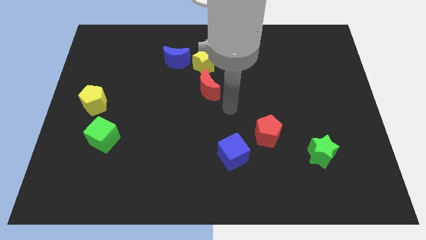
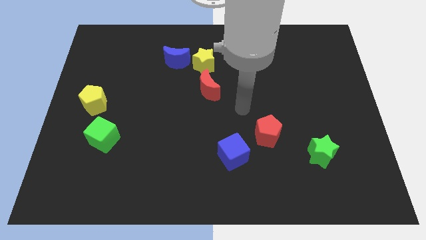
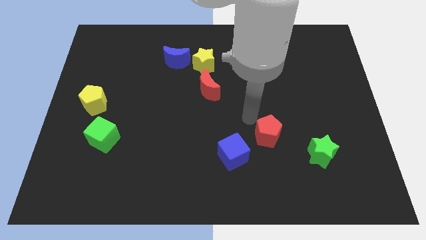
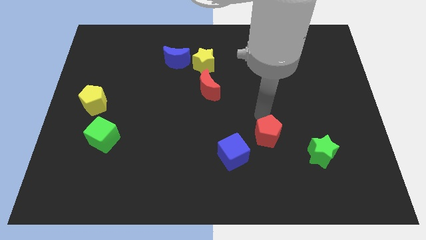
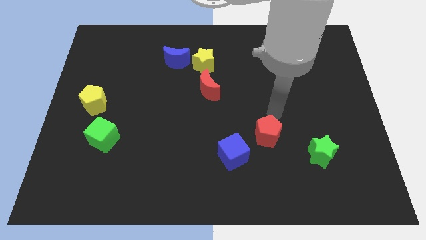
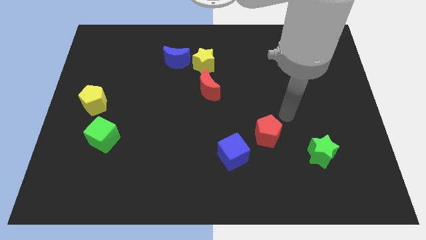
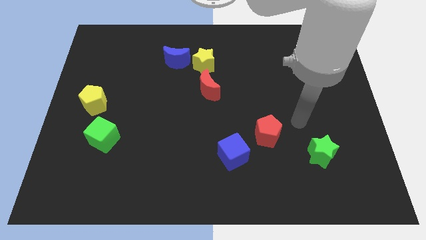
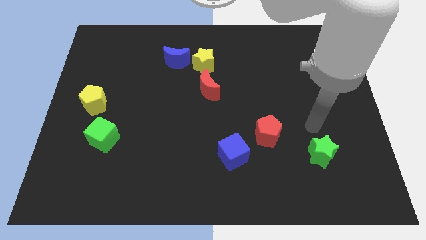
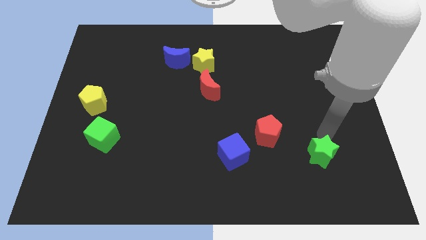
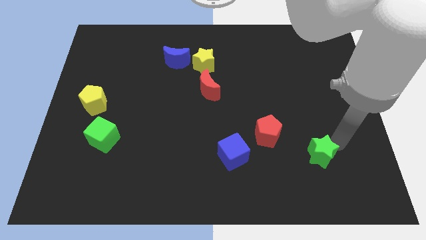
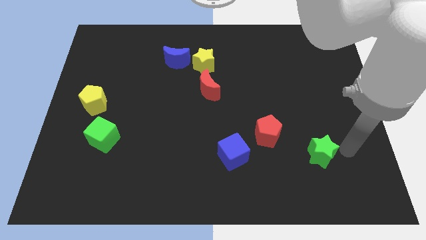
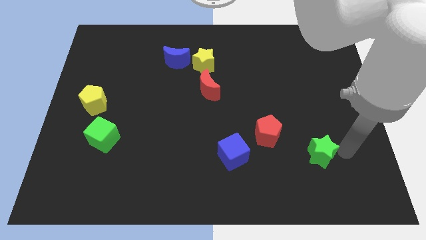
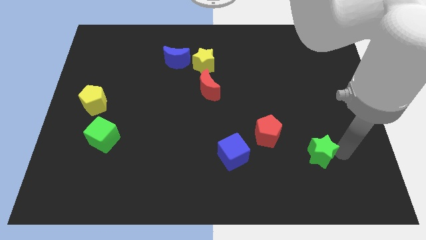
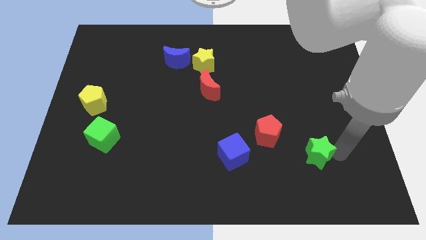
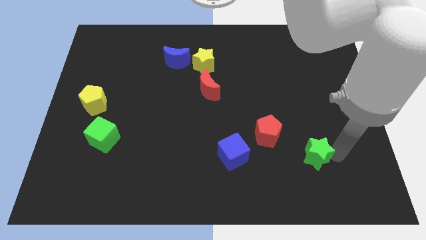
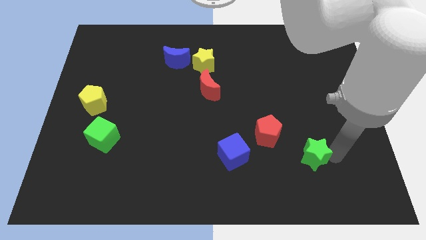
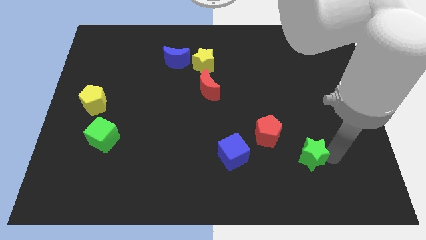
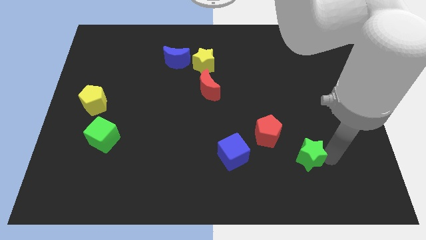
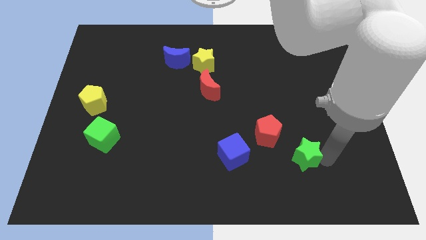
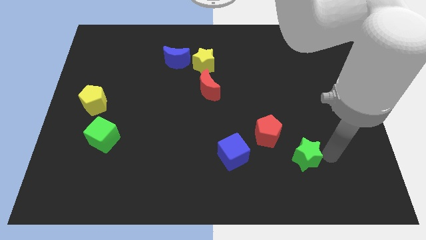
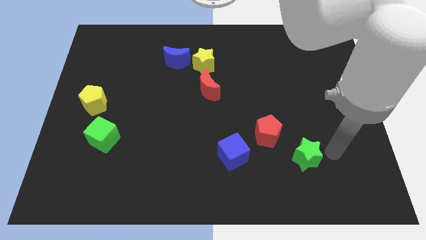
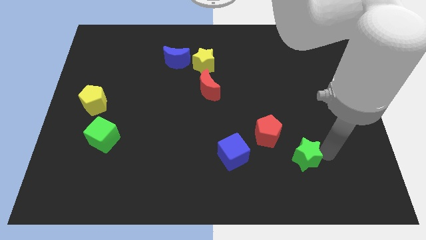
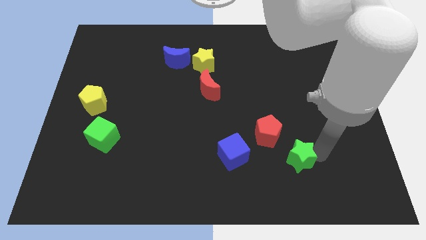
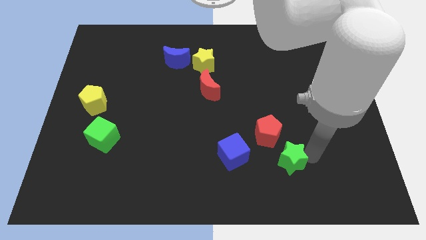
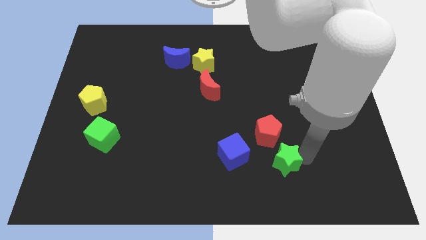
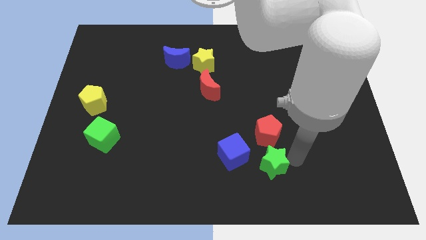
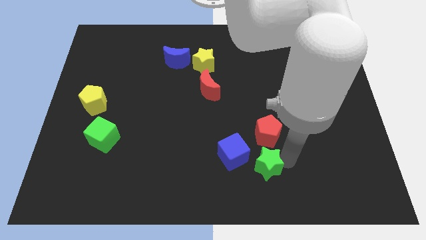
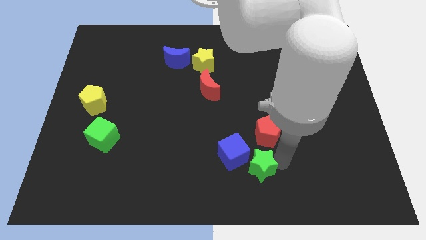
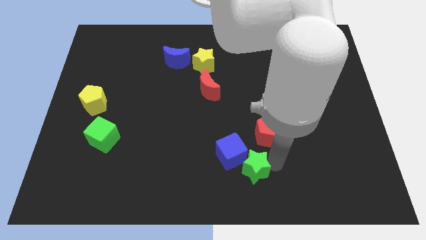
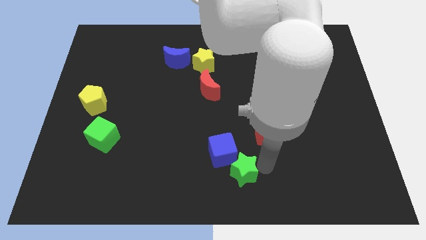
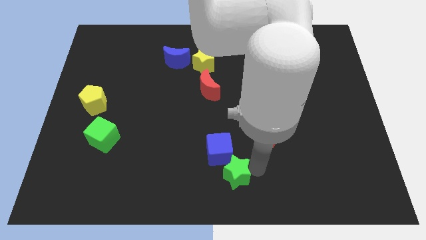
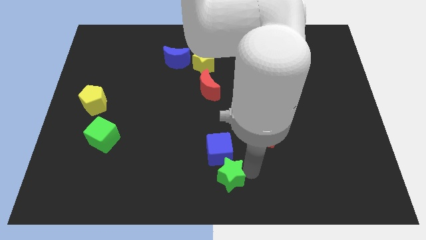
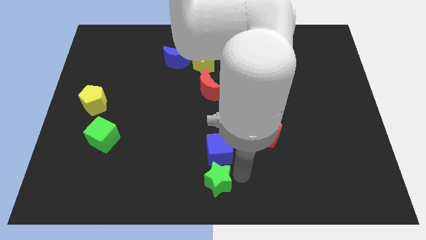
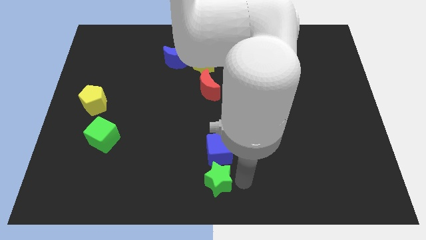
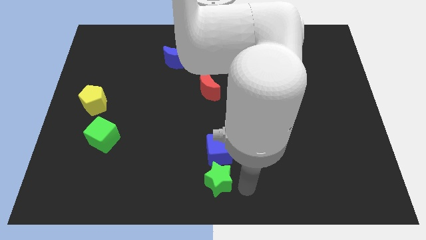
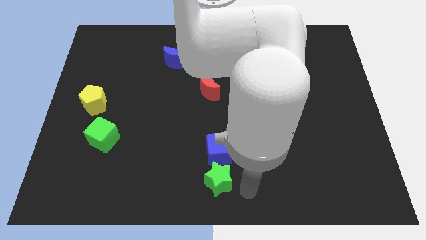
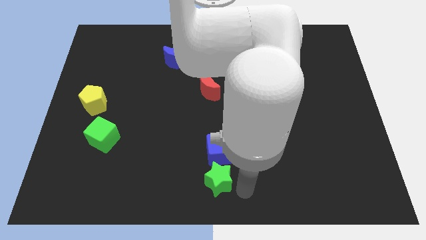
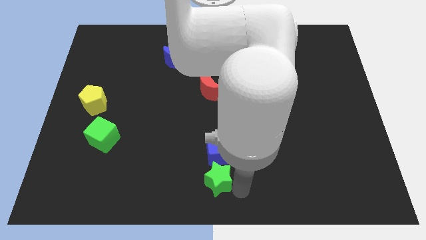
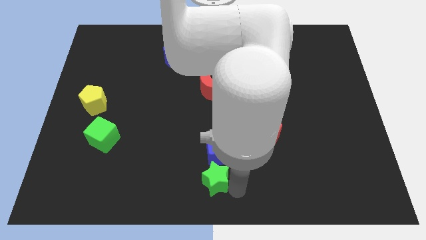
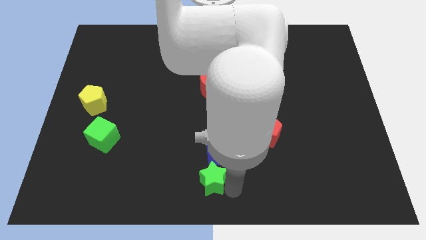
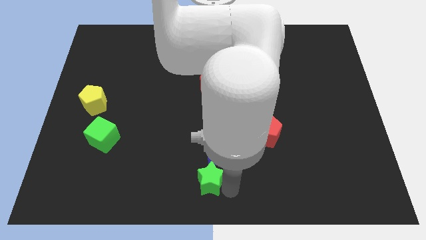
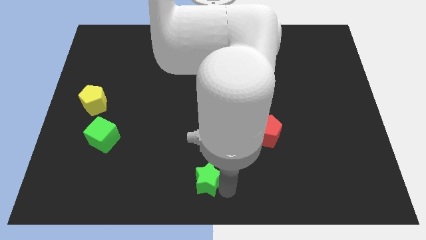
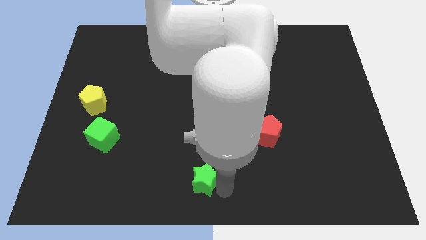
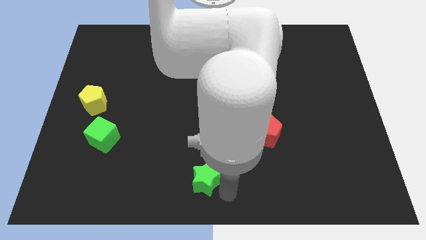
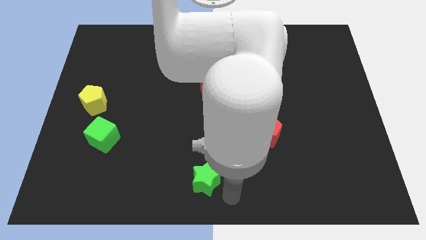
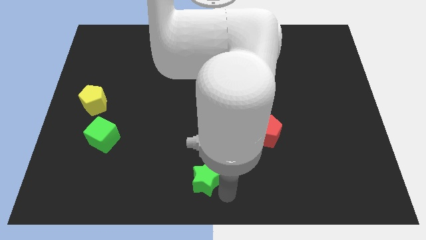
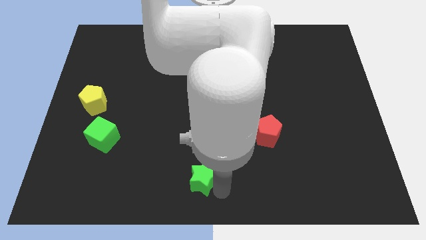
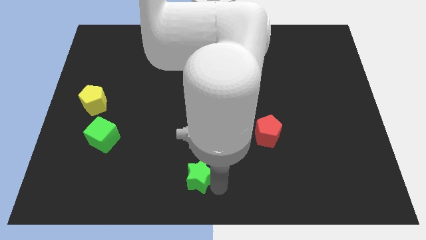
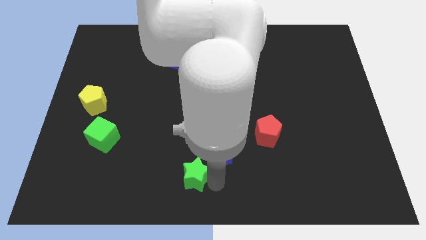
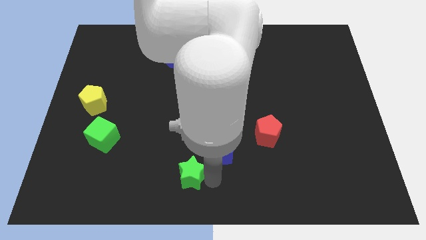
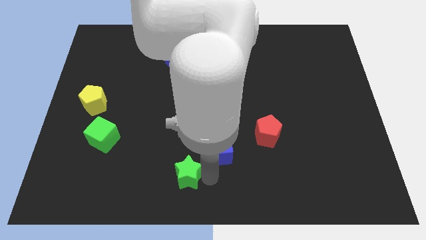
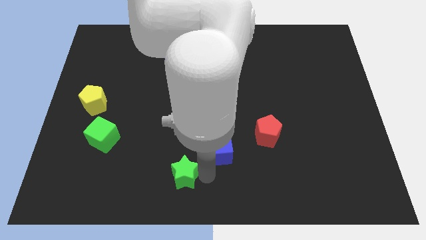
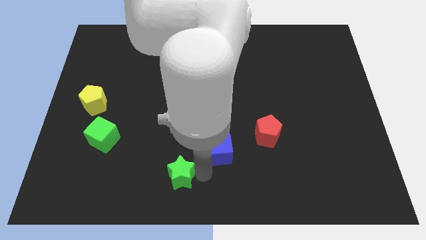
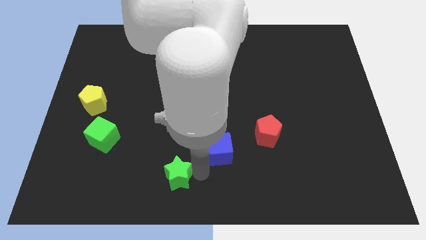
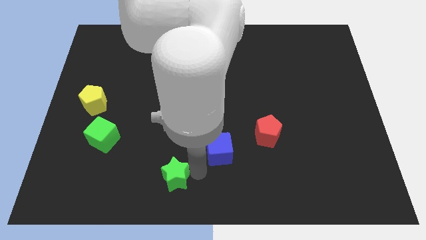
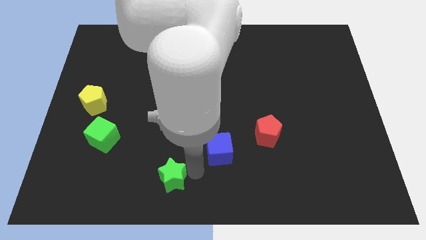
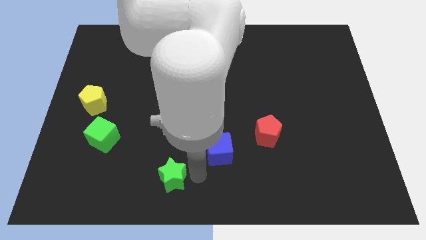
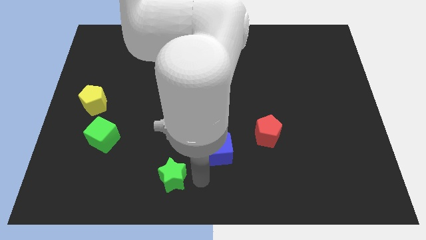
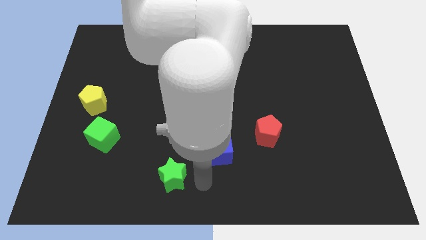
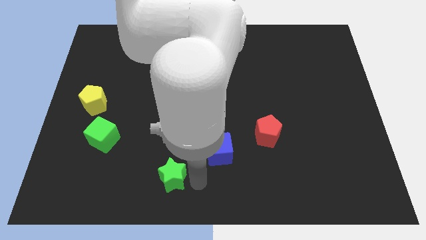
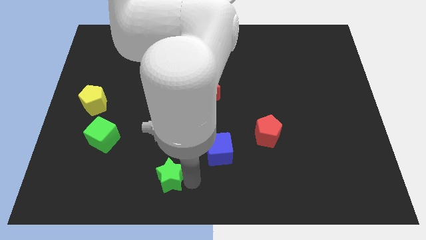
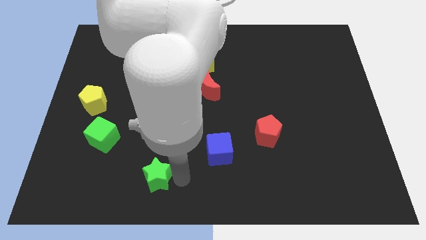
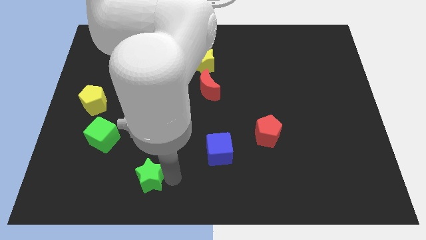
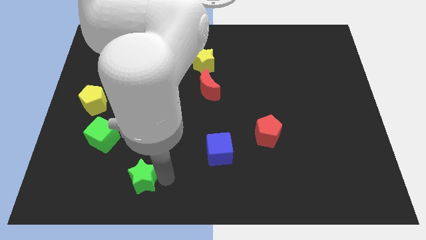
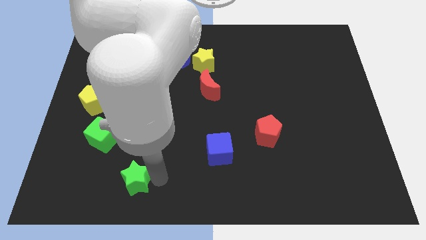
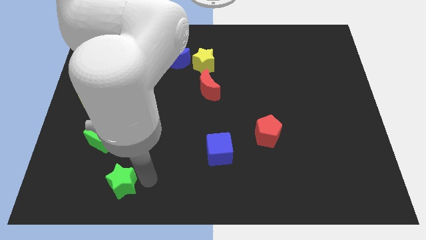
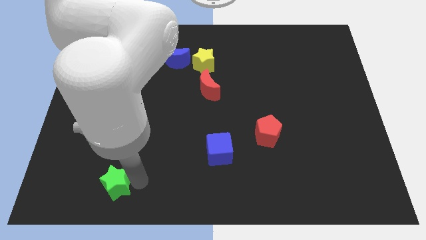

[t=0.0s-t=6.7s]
put the green star to the bottom side of the green cube
